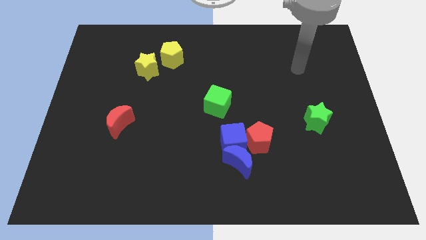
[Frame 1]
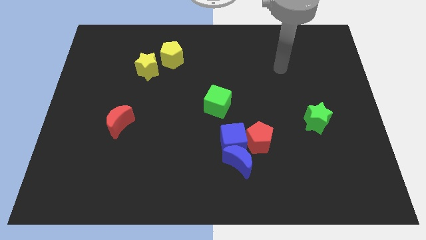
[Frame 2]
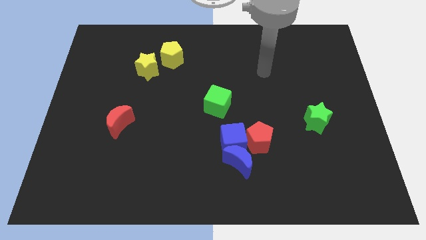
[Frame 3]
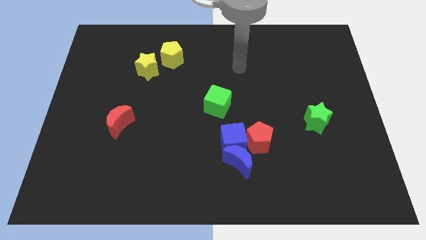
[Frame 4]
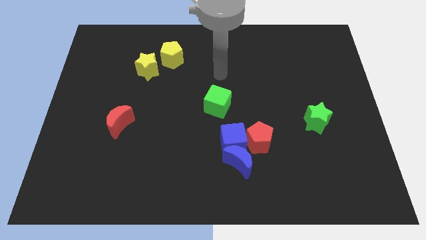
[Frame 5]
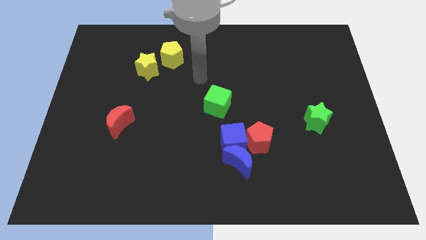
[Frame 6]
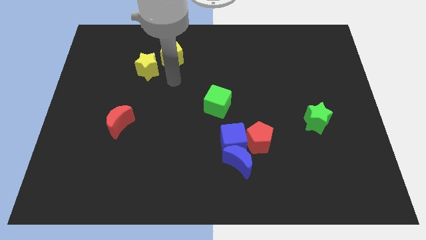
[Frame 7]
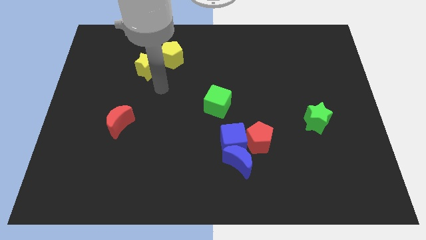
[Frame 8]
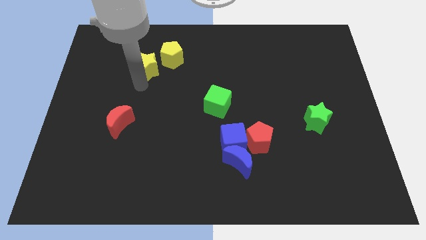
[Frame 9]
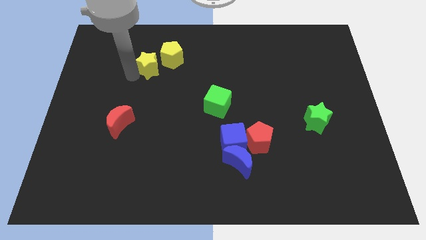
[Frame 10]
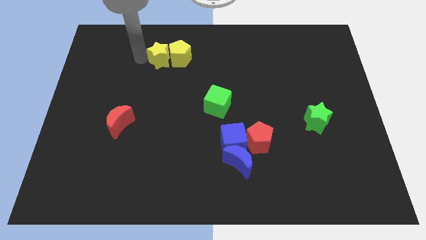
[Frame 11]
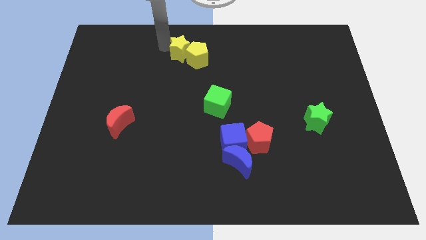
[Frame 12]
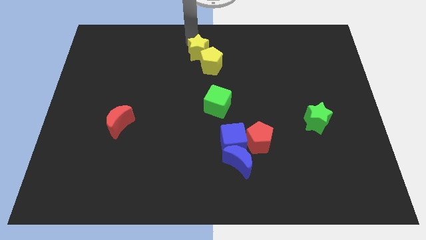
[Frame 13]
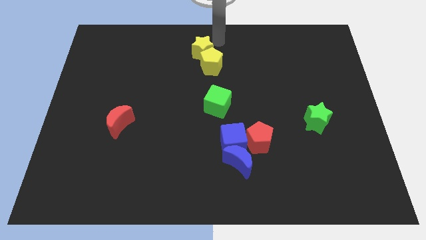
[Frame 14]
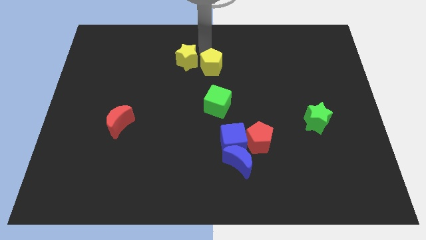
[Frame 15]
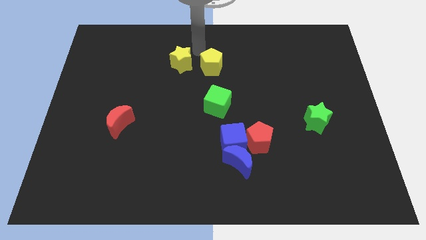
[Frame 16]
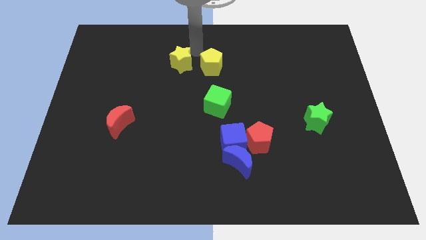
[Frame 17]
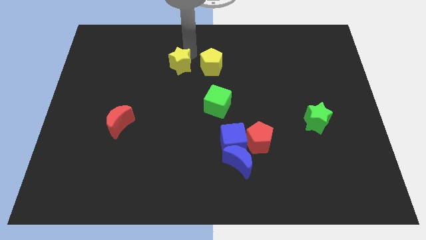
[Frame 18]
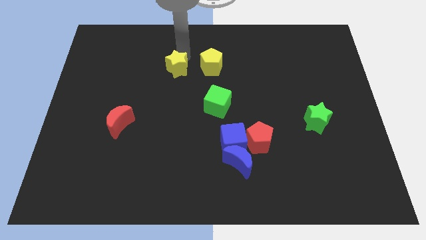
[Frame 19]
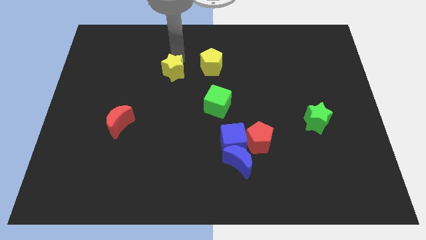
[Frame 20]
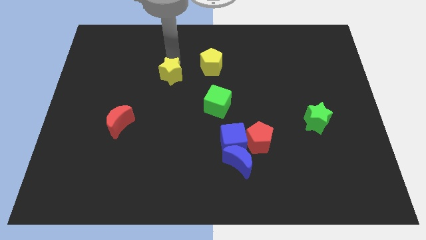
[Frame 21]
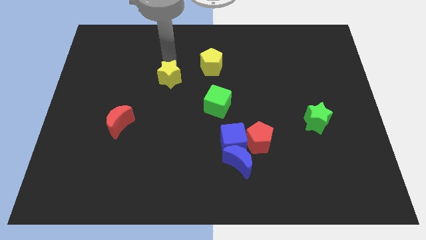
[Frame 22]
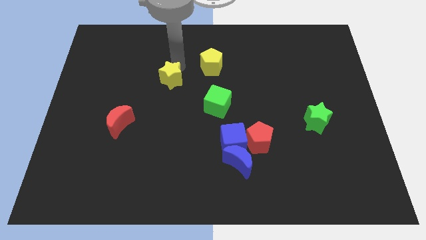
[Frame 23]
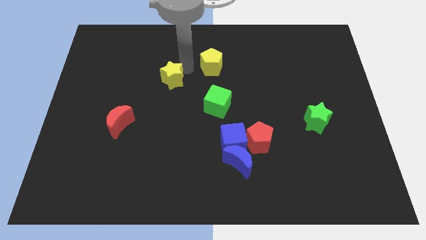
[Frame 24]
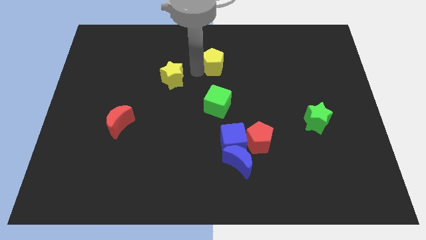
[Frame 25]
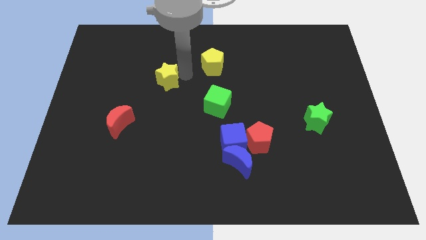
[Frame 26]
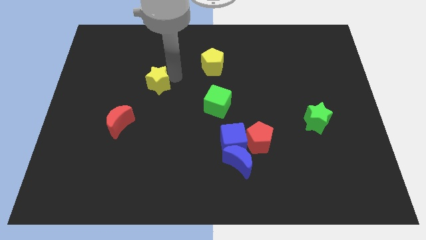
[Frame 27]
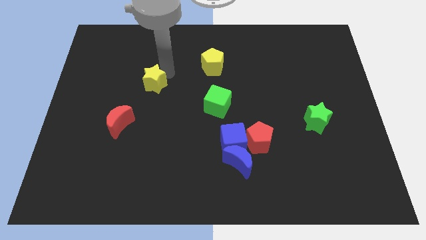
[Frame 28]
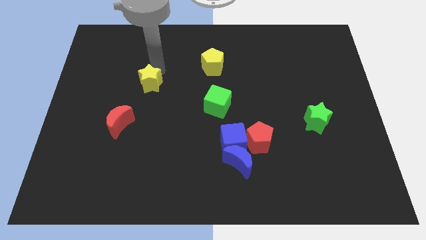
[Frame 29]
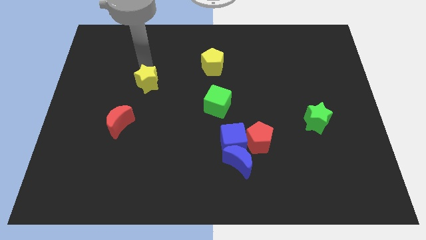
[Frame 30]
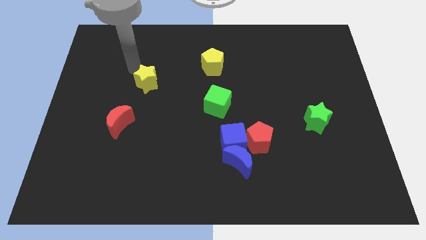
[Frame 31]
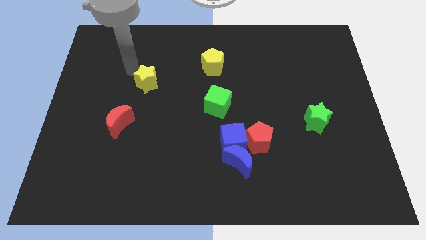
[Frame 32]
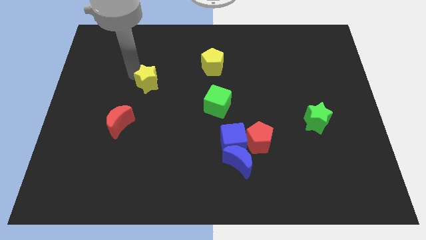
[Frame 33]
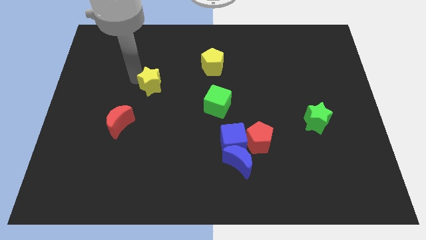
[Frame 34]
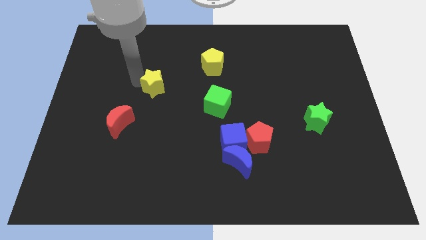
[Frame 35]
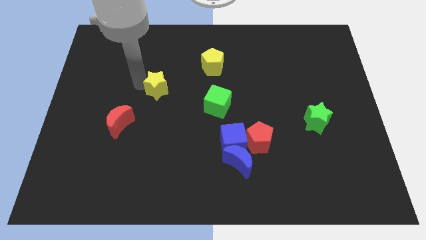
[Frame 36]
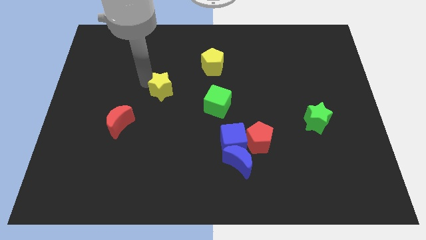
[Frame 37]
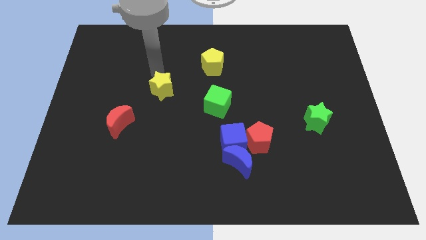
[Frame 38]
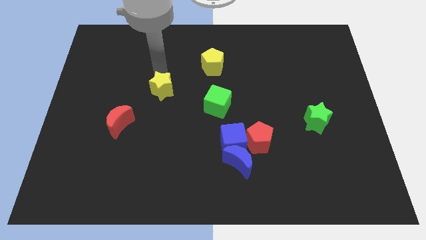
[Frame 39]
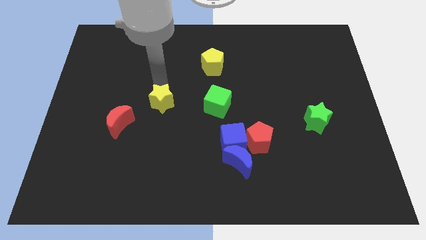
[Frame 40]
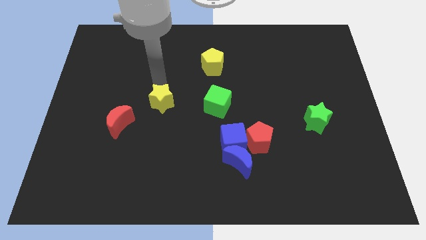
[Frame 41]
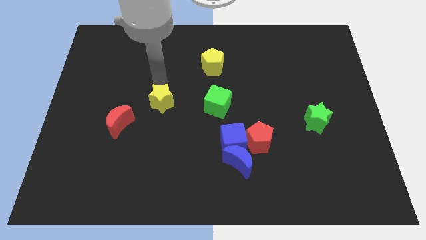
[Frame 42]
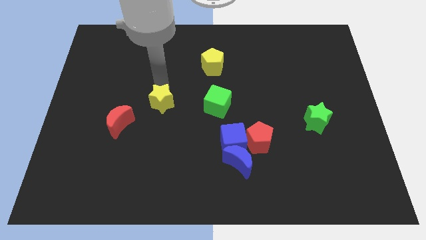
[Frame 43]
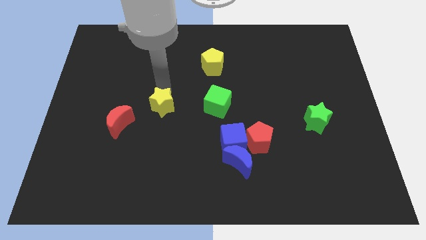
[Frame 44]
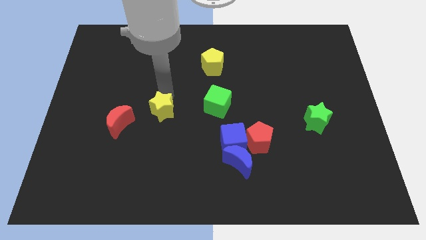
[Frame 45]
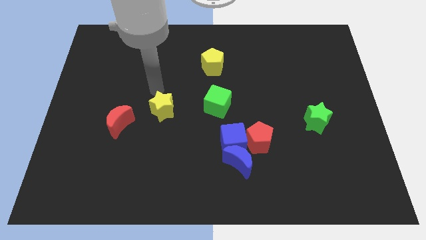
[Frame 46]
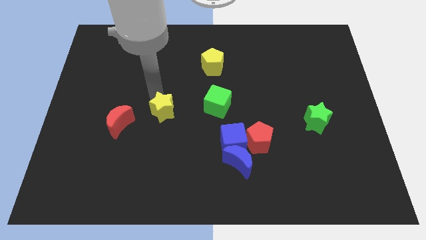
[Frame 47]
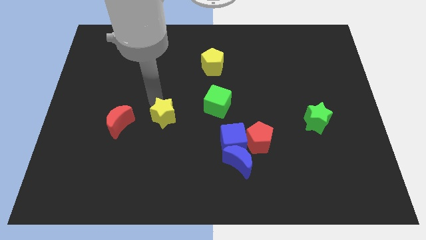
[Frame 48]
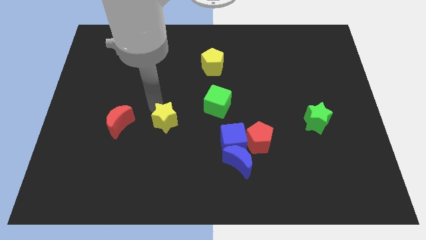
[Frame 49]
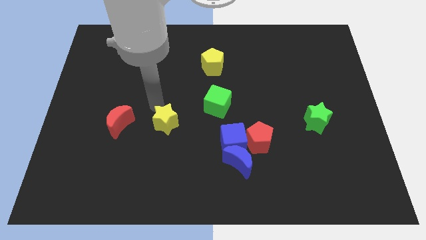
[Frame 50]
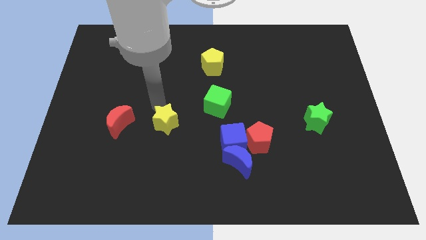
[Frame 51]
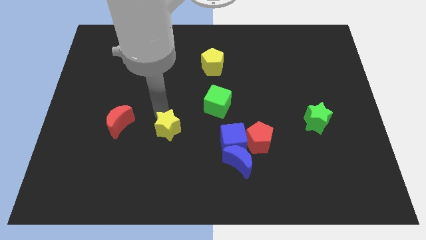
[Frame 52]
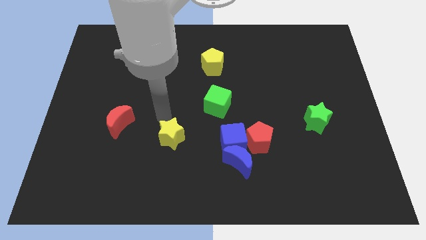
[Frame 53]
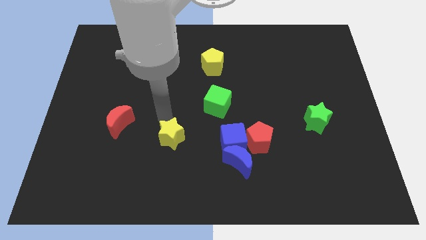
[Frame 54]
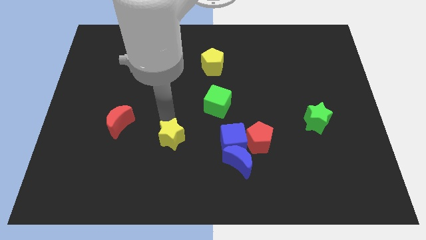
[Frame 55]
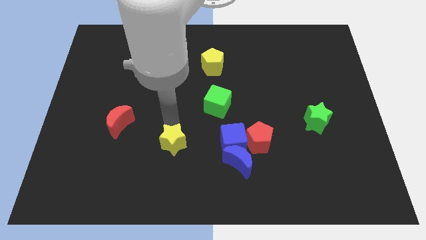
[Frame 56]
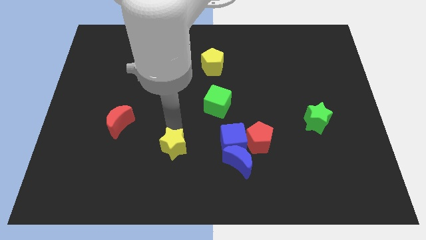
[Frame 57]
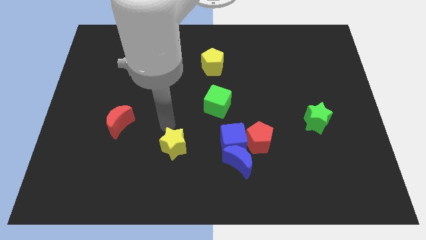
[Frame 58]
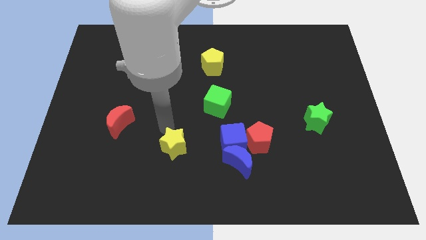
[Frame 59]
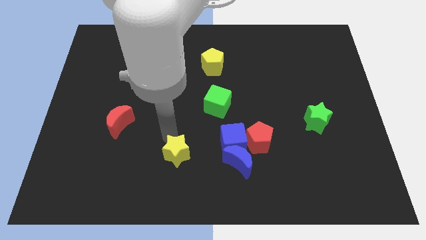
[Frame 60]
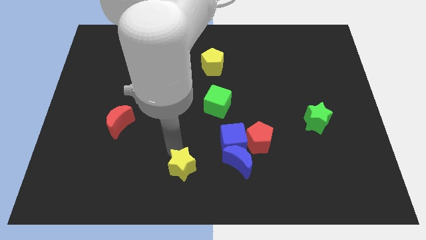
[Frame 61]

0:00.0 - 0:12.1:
put the yellow star to the bottom side

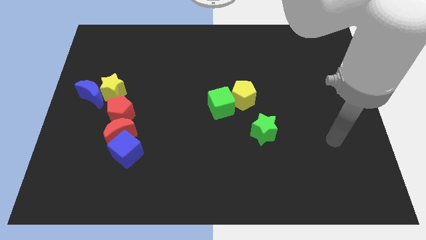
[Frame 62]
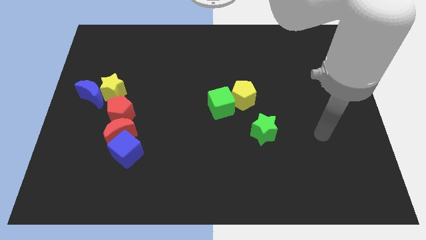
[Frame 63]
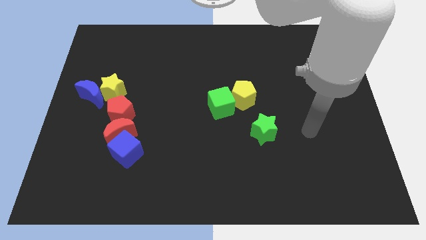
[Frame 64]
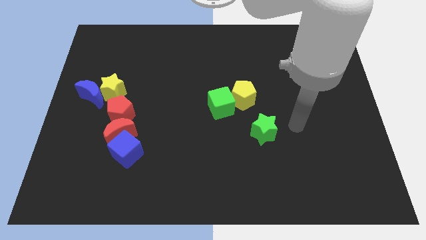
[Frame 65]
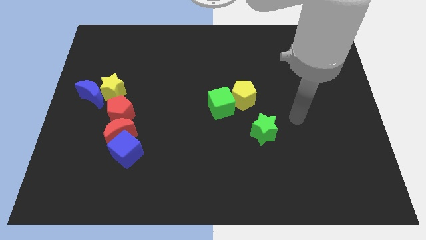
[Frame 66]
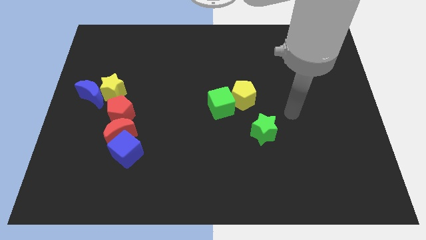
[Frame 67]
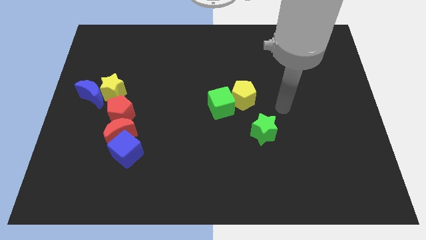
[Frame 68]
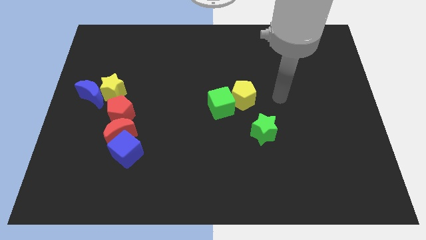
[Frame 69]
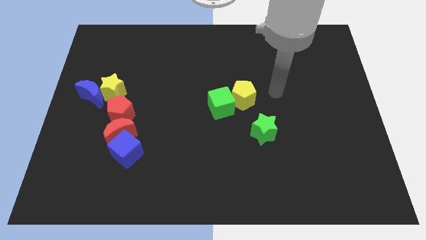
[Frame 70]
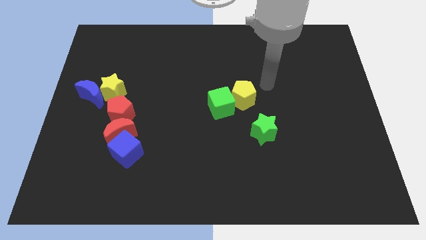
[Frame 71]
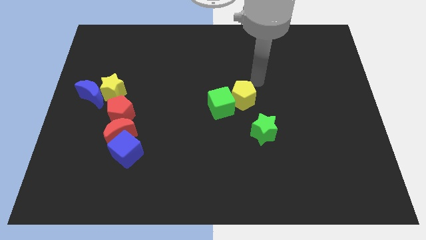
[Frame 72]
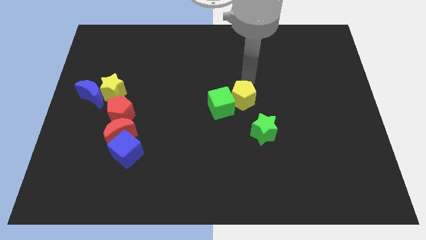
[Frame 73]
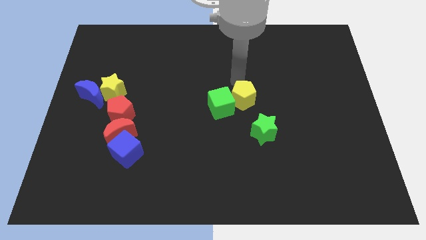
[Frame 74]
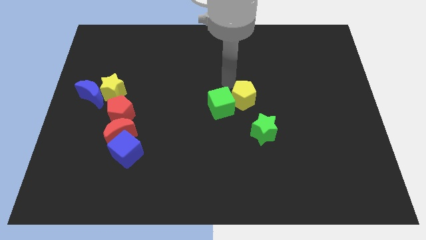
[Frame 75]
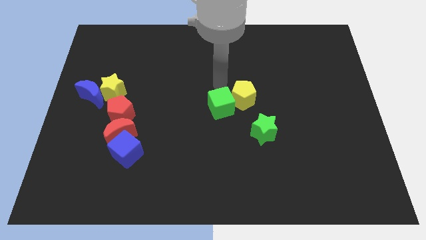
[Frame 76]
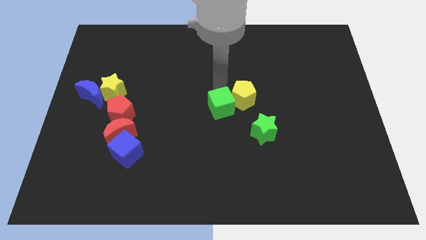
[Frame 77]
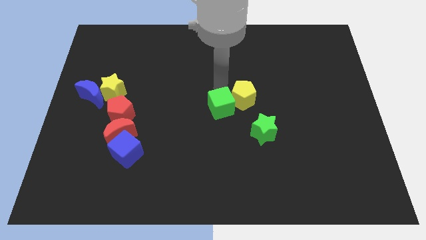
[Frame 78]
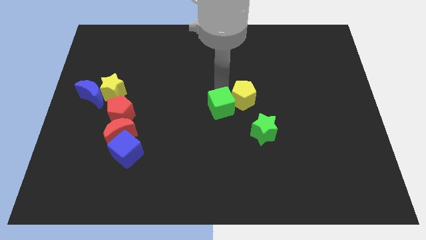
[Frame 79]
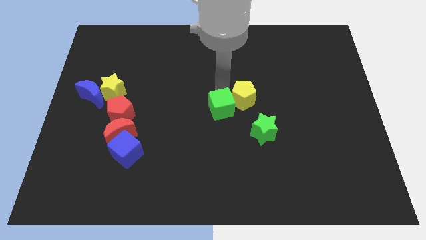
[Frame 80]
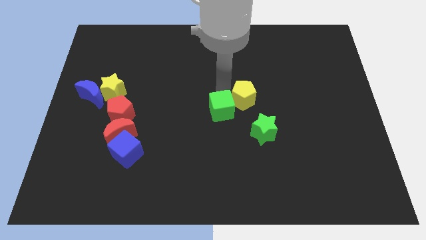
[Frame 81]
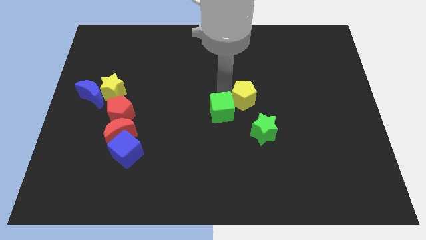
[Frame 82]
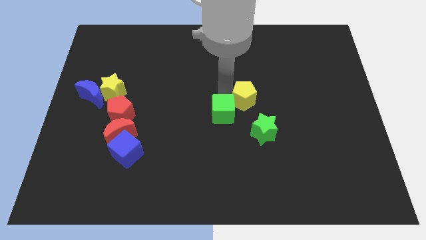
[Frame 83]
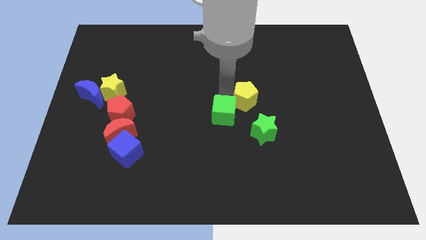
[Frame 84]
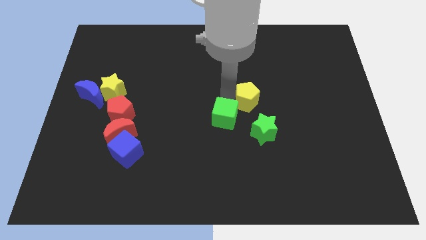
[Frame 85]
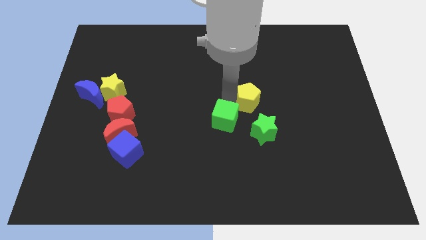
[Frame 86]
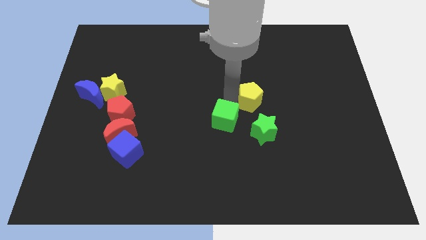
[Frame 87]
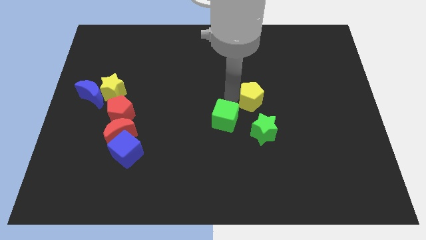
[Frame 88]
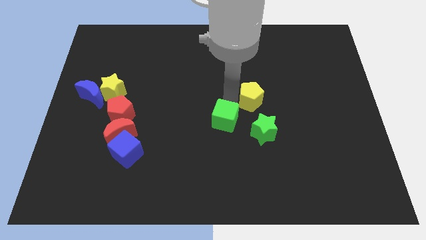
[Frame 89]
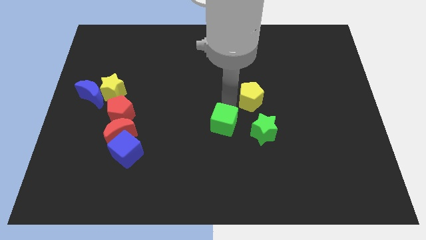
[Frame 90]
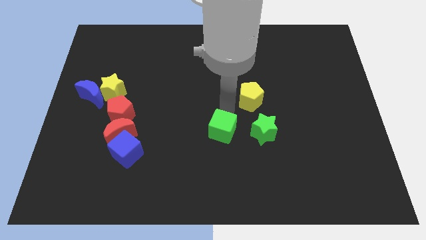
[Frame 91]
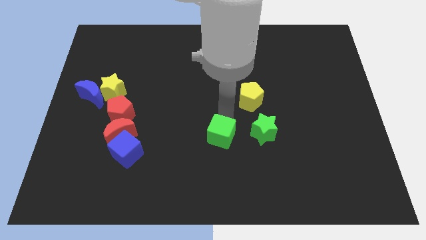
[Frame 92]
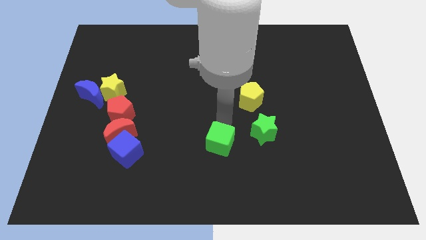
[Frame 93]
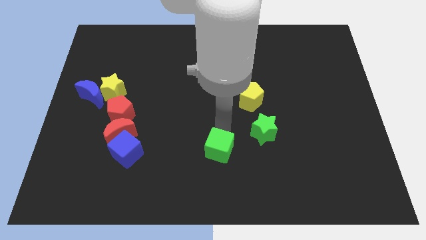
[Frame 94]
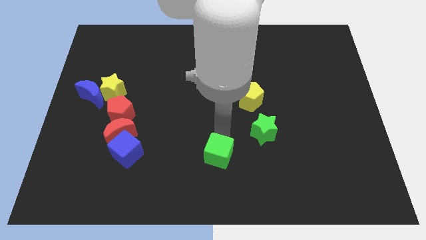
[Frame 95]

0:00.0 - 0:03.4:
put the green cube to the bottom
